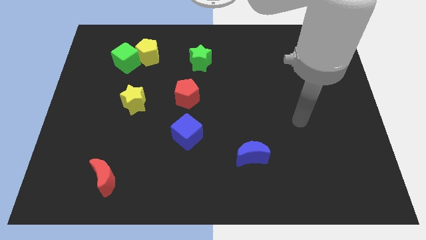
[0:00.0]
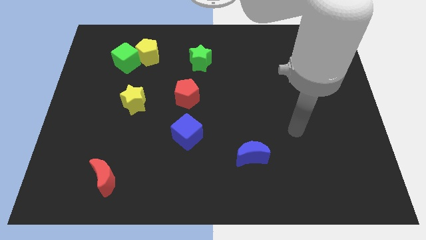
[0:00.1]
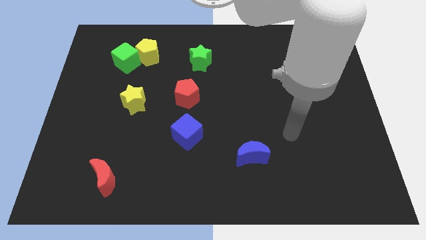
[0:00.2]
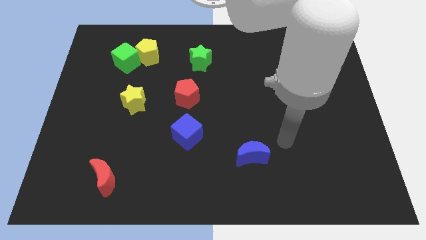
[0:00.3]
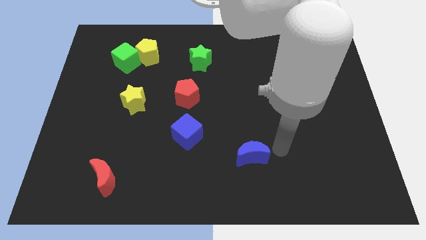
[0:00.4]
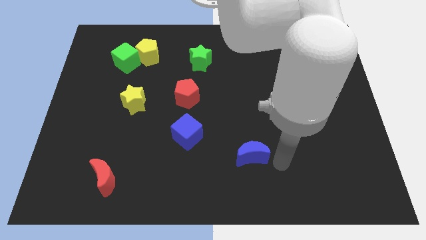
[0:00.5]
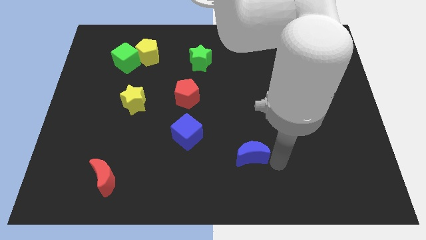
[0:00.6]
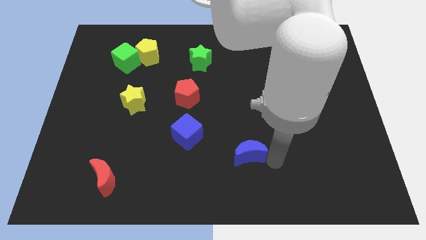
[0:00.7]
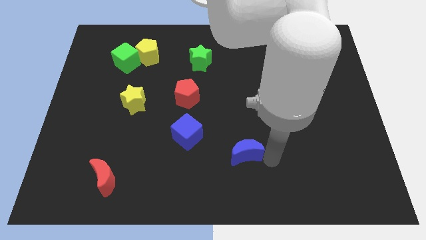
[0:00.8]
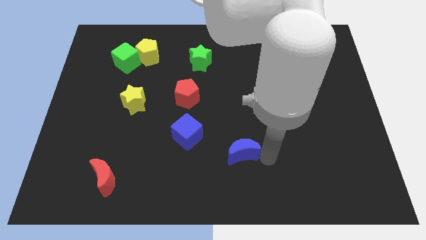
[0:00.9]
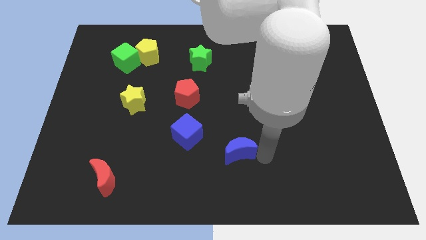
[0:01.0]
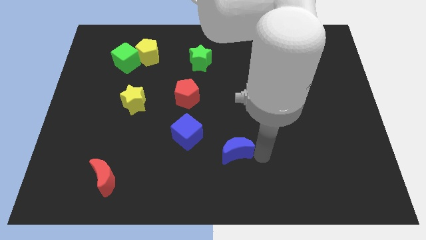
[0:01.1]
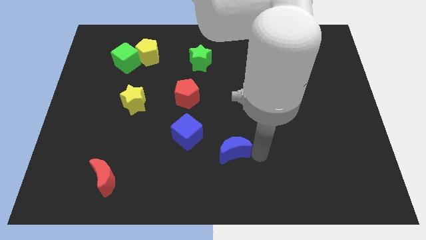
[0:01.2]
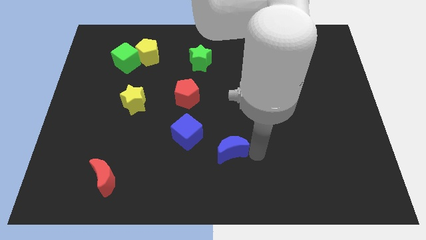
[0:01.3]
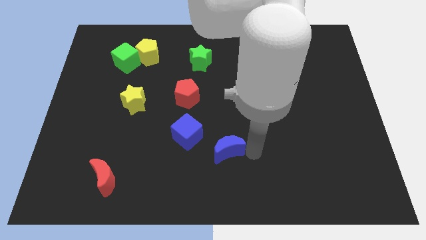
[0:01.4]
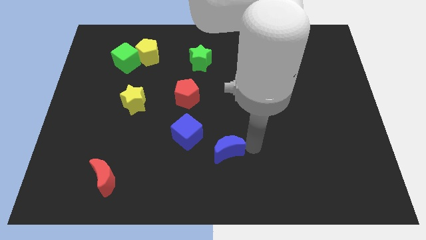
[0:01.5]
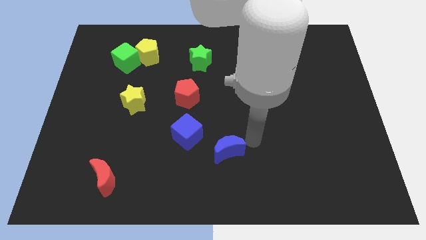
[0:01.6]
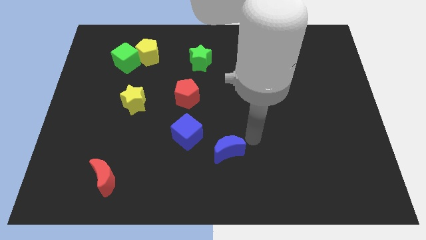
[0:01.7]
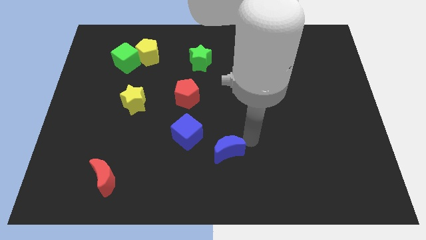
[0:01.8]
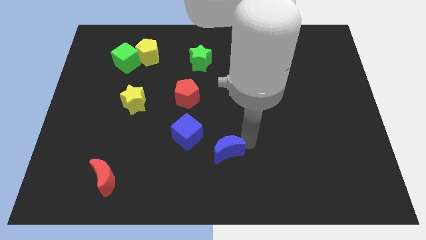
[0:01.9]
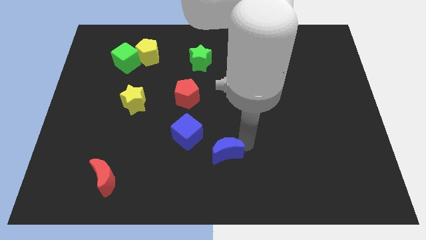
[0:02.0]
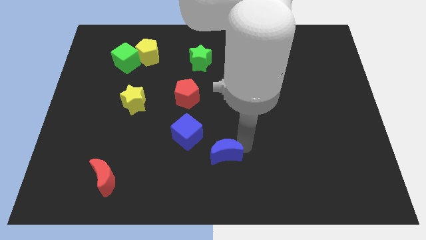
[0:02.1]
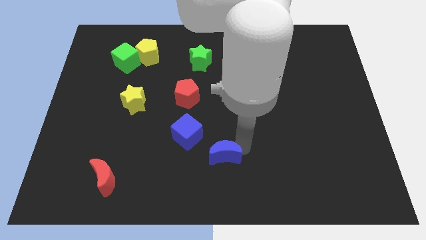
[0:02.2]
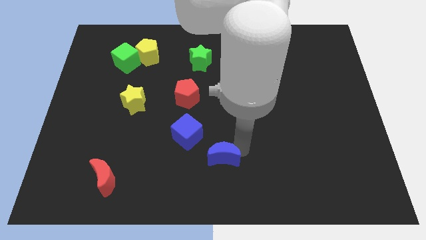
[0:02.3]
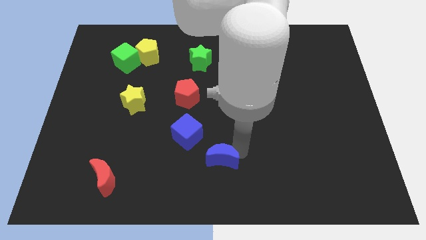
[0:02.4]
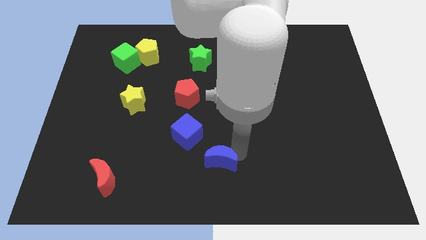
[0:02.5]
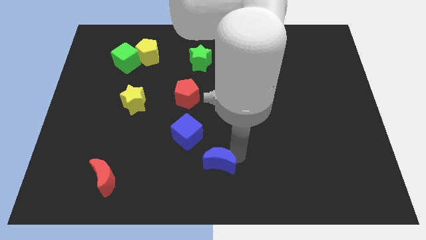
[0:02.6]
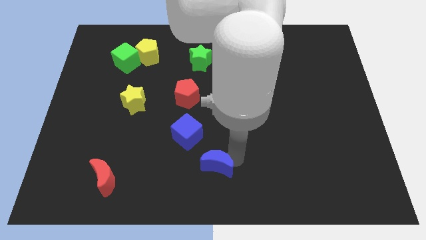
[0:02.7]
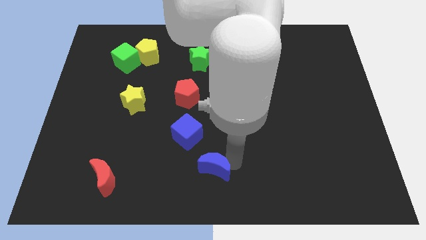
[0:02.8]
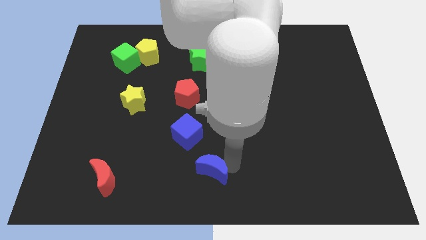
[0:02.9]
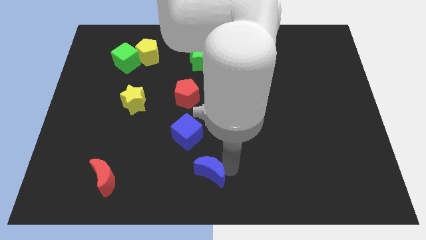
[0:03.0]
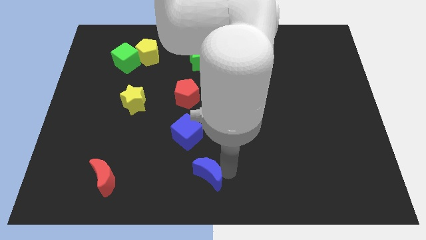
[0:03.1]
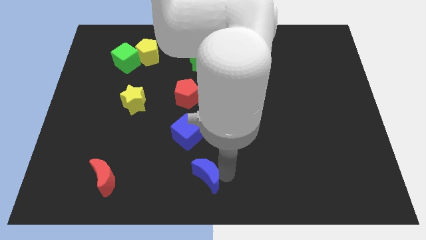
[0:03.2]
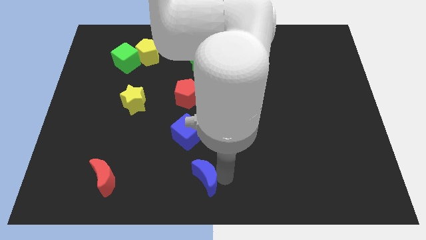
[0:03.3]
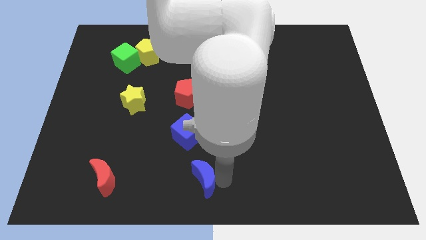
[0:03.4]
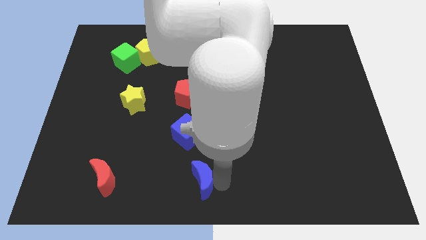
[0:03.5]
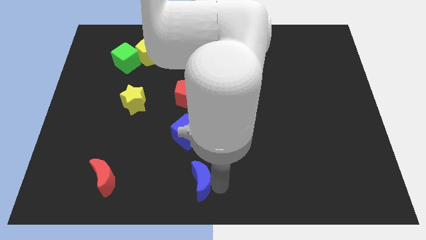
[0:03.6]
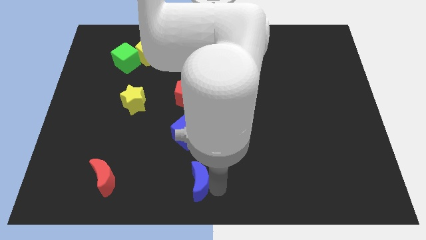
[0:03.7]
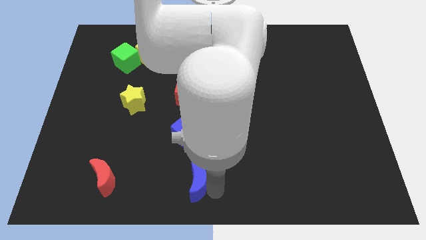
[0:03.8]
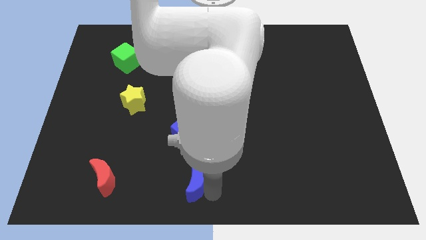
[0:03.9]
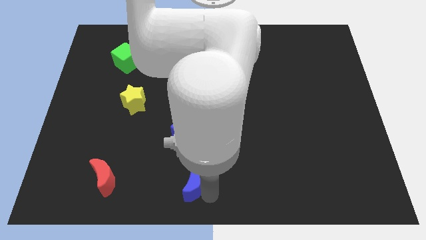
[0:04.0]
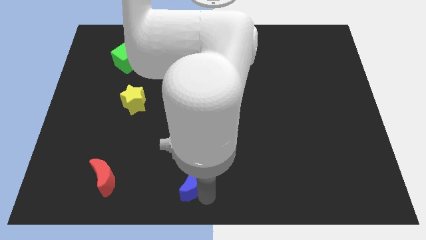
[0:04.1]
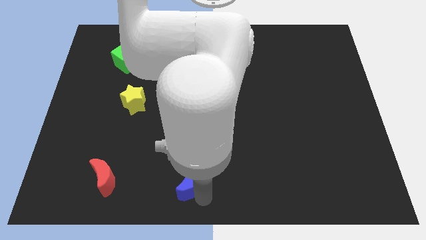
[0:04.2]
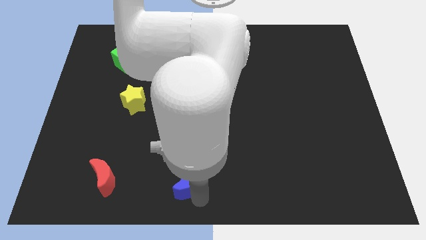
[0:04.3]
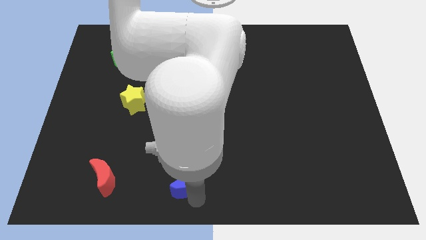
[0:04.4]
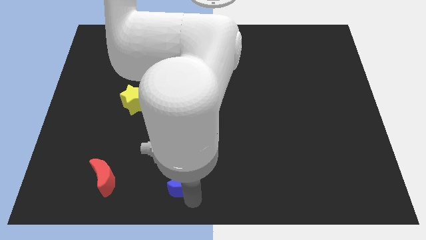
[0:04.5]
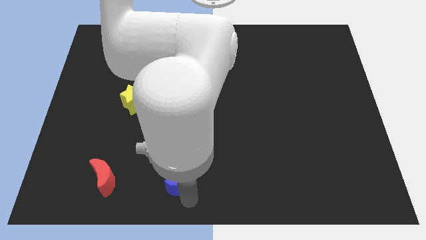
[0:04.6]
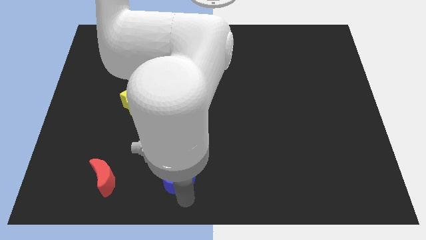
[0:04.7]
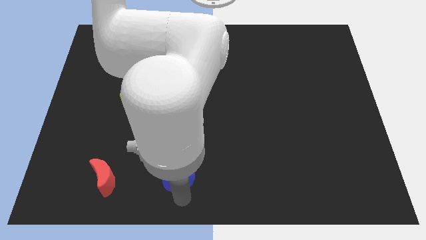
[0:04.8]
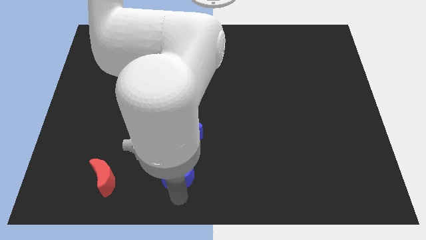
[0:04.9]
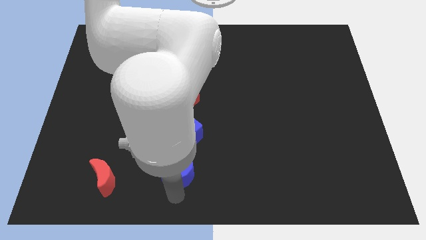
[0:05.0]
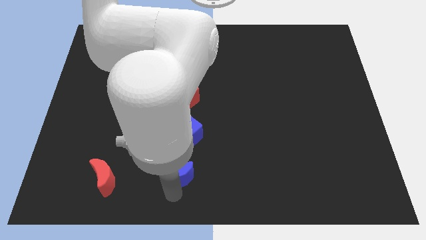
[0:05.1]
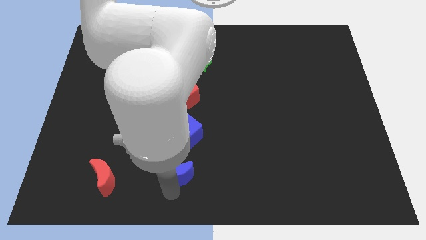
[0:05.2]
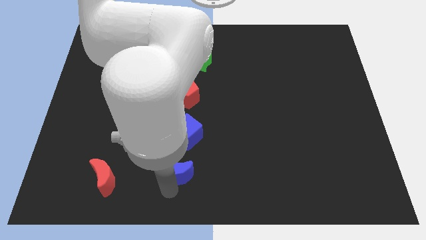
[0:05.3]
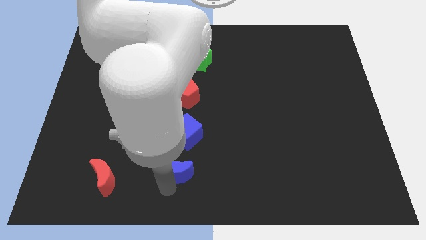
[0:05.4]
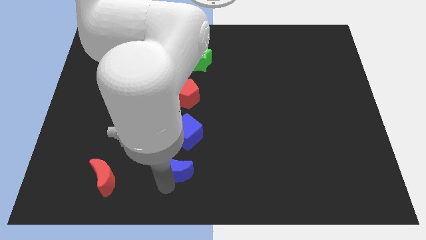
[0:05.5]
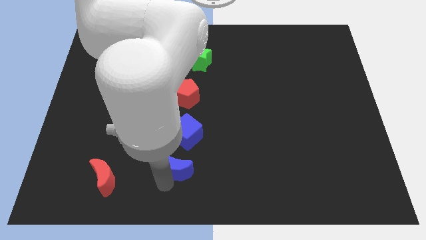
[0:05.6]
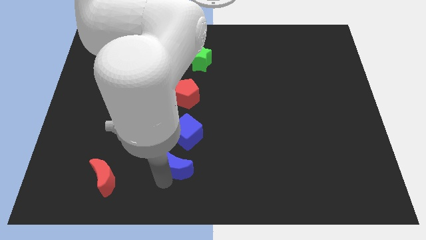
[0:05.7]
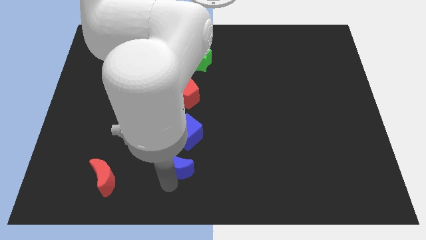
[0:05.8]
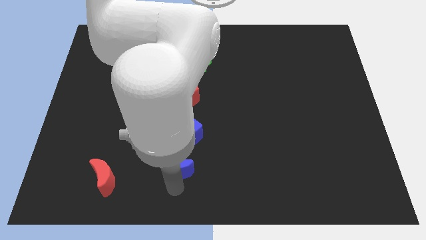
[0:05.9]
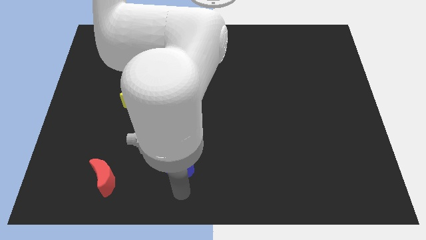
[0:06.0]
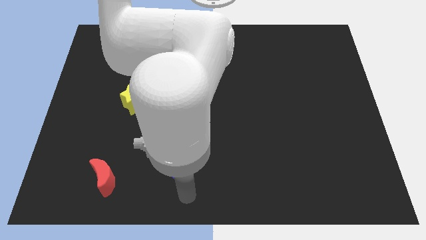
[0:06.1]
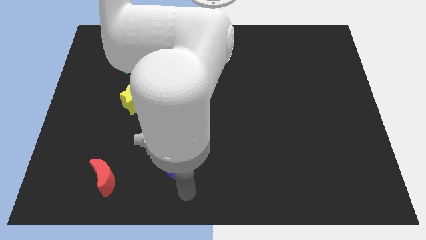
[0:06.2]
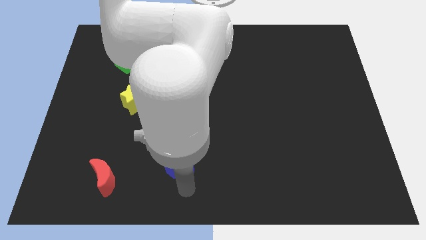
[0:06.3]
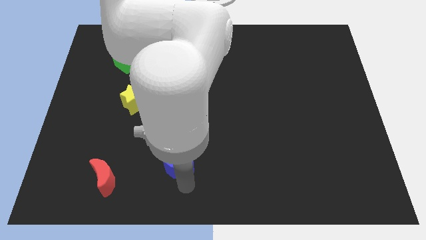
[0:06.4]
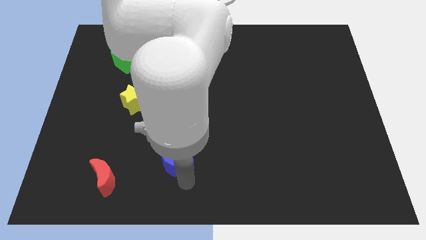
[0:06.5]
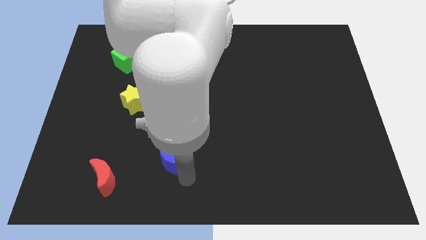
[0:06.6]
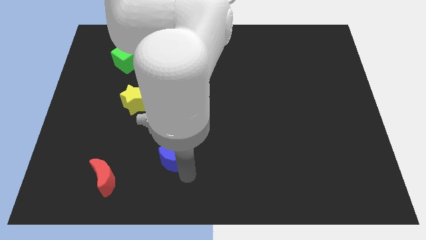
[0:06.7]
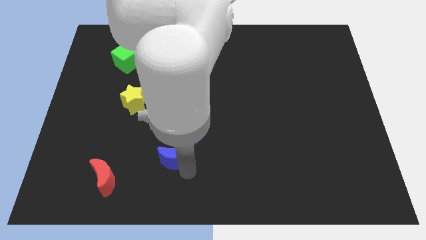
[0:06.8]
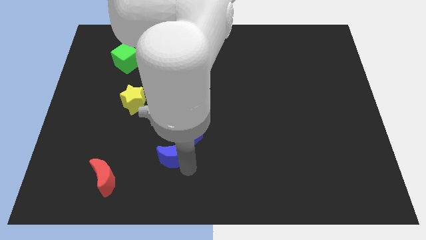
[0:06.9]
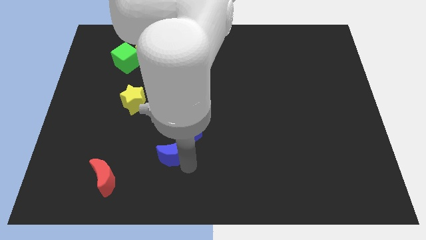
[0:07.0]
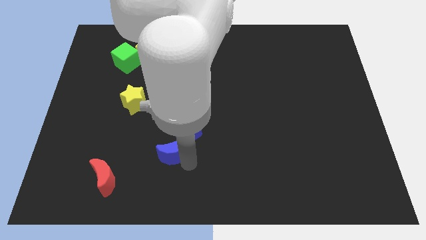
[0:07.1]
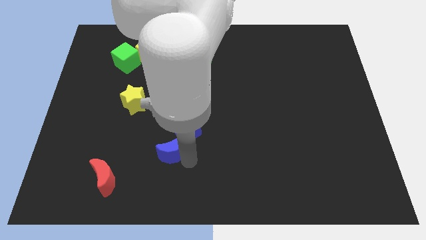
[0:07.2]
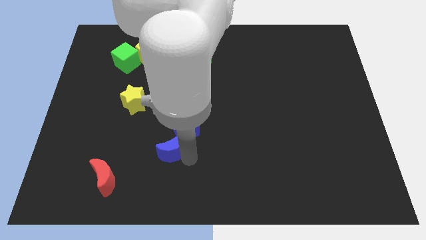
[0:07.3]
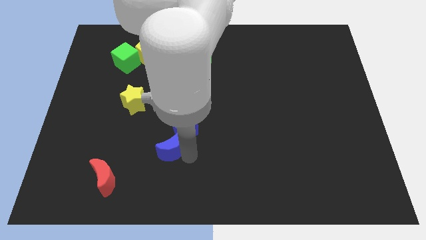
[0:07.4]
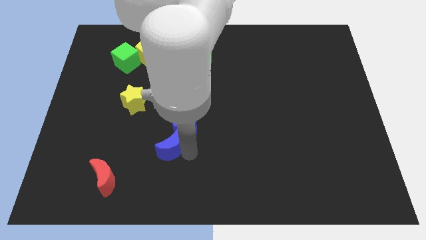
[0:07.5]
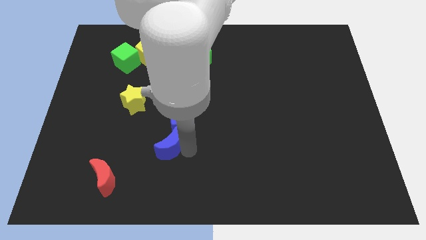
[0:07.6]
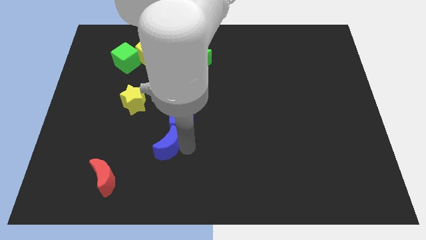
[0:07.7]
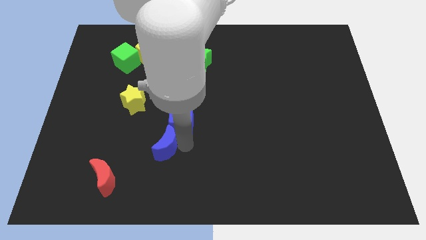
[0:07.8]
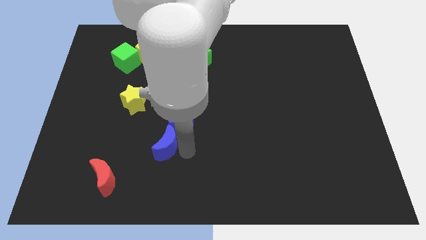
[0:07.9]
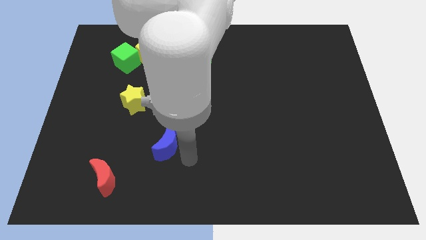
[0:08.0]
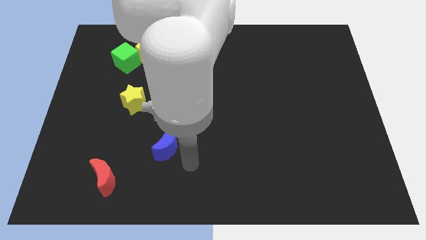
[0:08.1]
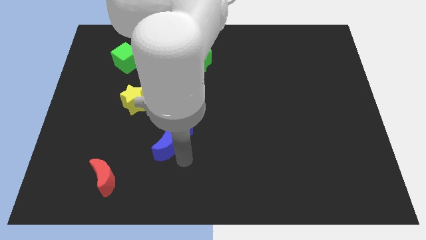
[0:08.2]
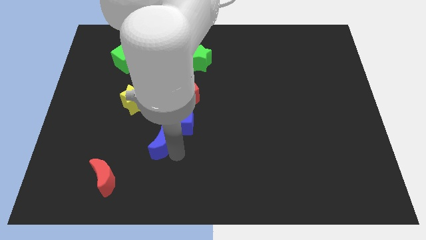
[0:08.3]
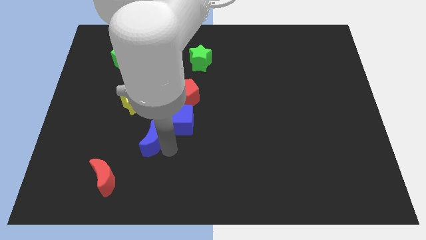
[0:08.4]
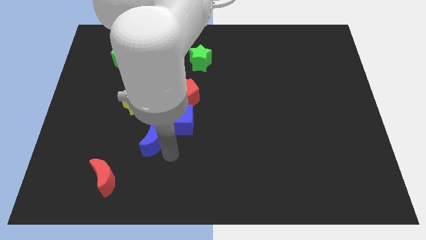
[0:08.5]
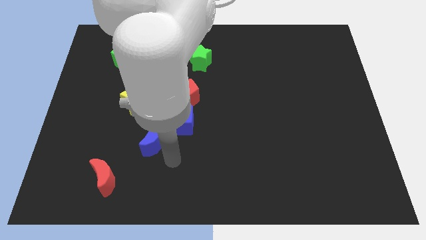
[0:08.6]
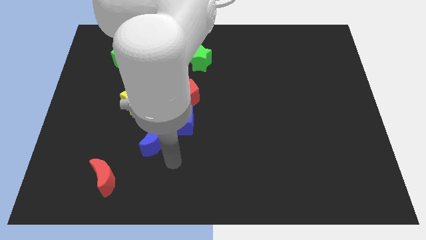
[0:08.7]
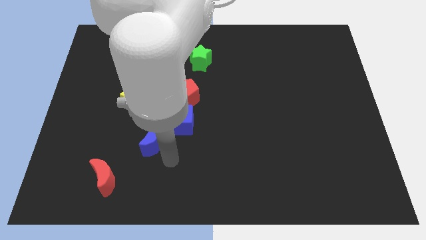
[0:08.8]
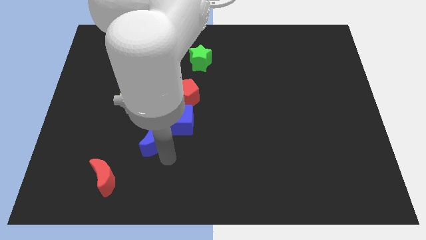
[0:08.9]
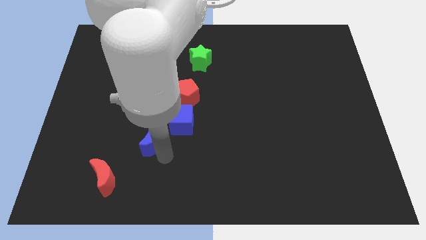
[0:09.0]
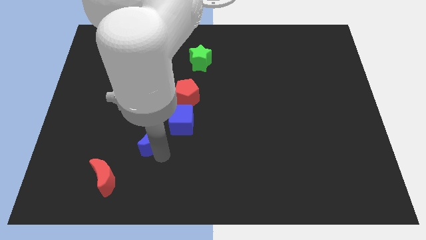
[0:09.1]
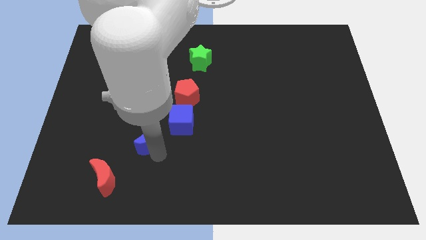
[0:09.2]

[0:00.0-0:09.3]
put the blue moon left of the blue cube
